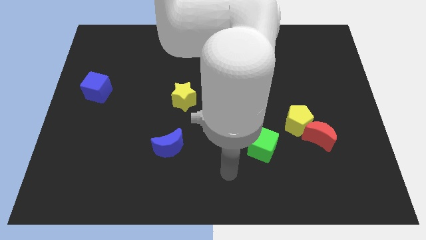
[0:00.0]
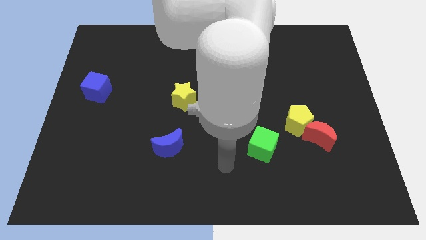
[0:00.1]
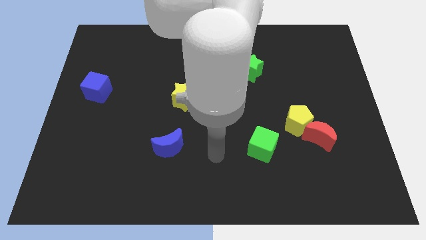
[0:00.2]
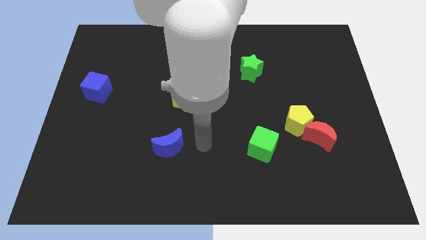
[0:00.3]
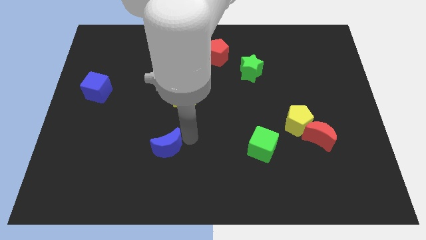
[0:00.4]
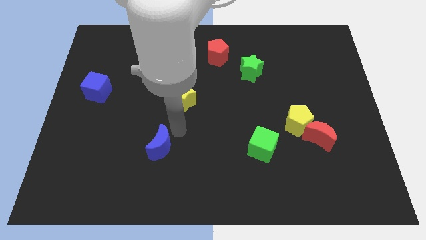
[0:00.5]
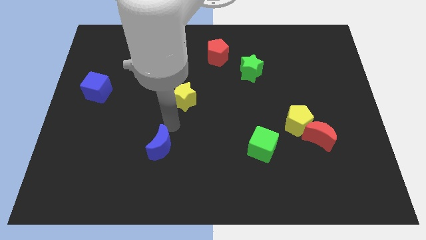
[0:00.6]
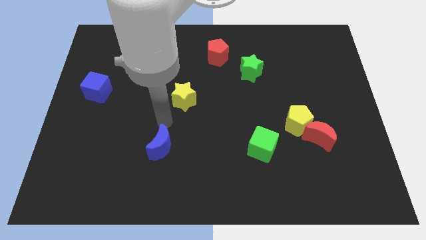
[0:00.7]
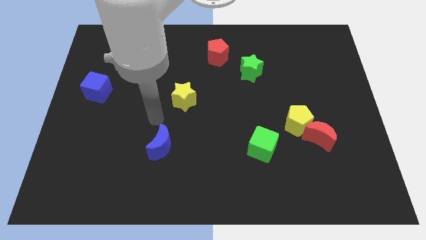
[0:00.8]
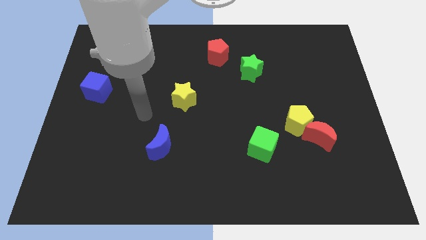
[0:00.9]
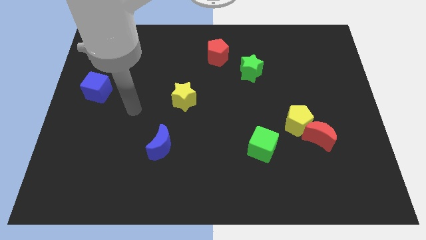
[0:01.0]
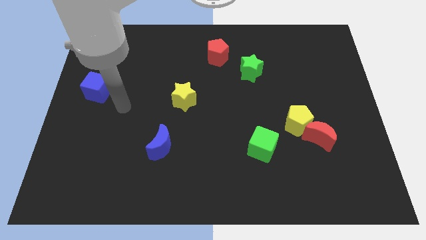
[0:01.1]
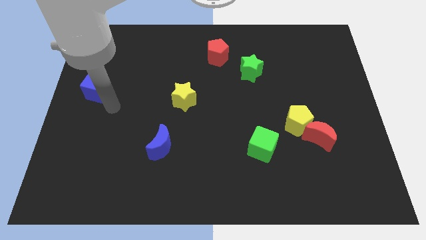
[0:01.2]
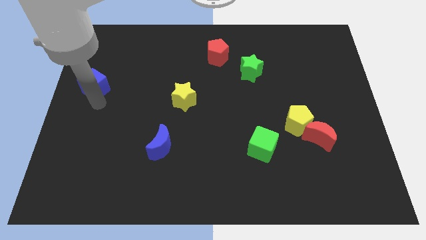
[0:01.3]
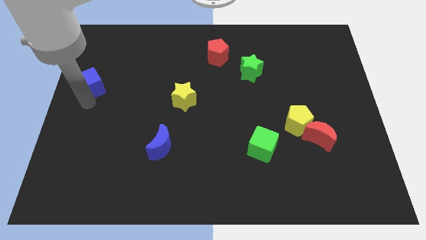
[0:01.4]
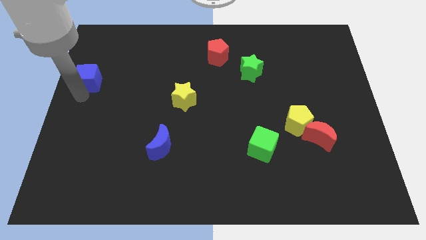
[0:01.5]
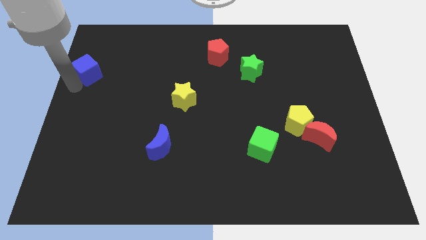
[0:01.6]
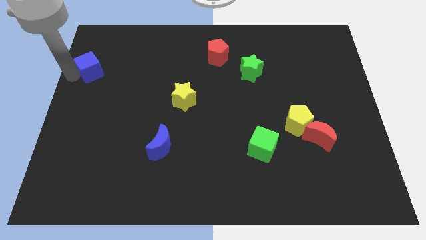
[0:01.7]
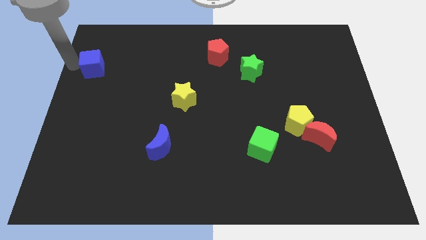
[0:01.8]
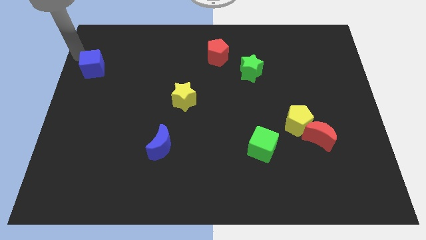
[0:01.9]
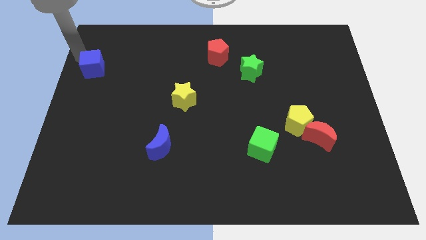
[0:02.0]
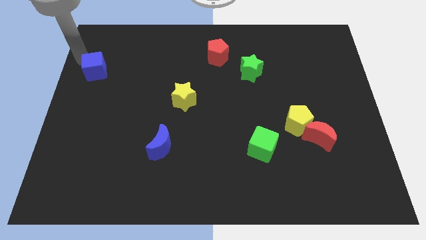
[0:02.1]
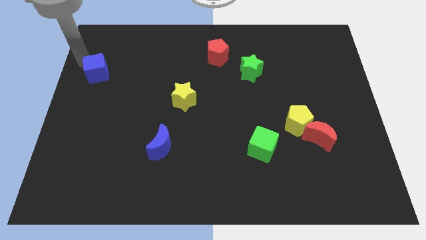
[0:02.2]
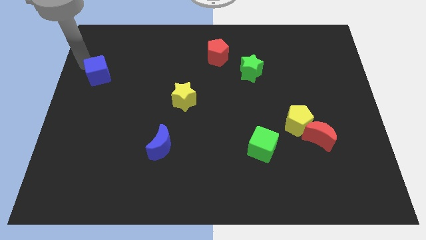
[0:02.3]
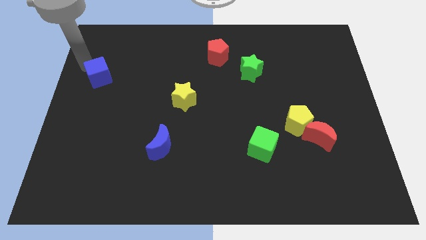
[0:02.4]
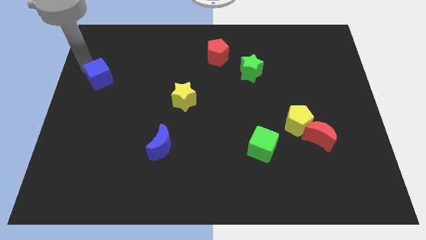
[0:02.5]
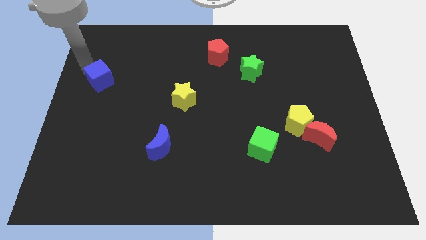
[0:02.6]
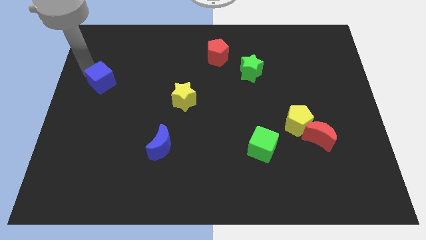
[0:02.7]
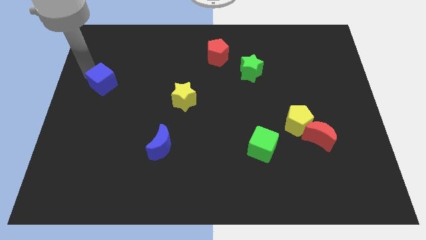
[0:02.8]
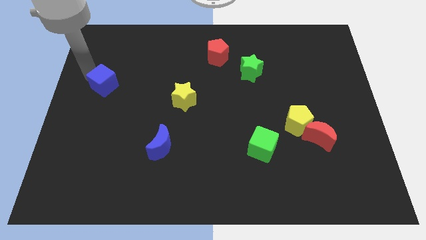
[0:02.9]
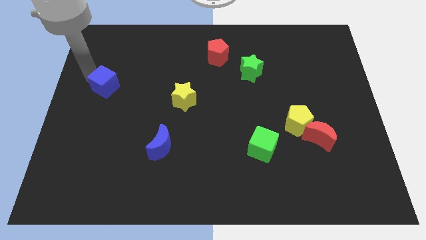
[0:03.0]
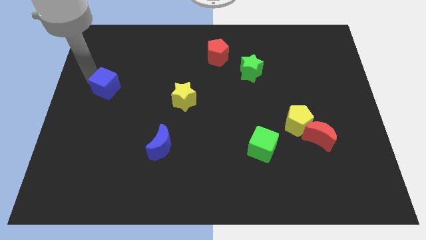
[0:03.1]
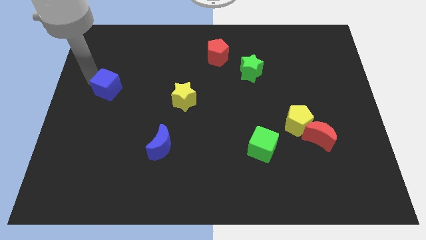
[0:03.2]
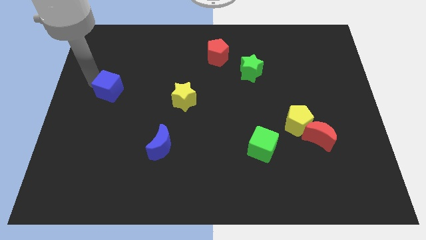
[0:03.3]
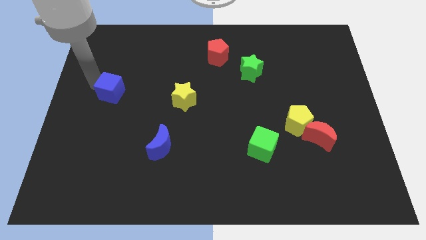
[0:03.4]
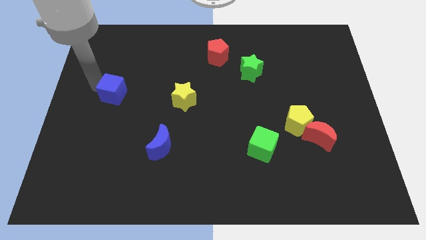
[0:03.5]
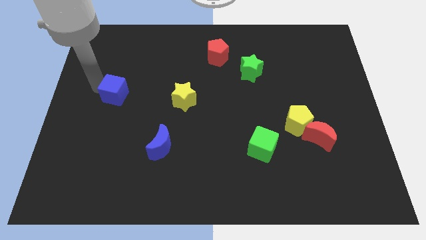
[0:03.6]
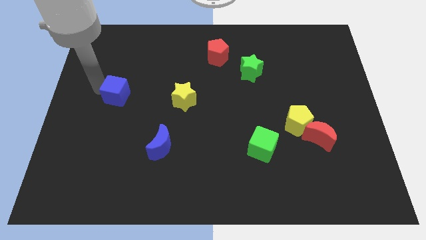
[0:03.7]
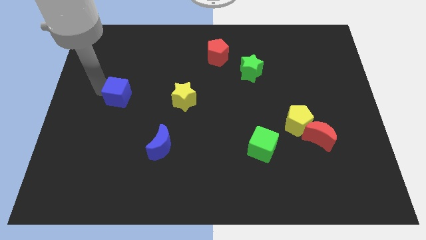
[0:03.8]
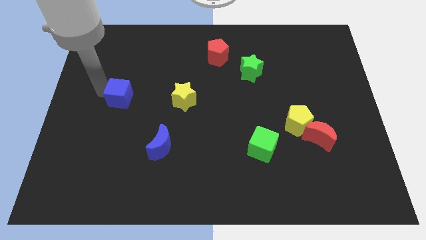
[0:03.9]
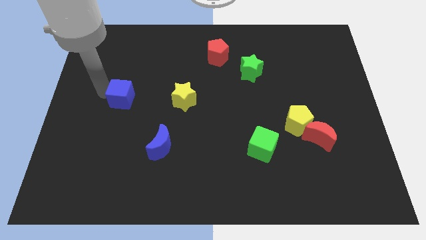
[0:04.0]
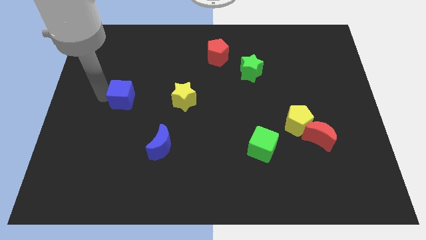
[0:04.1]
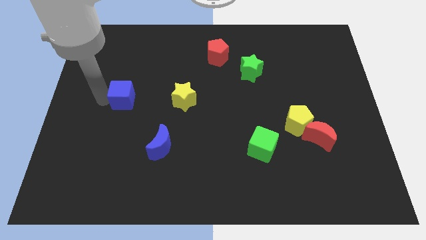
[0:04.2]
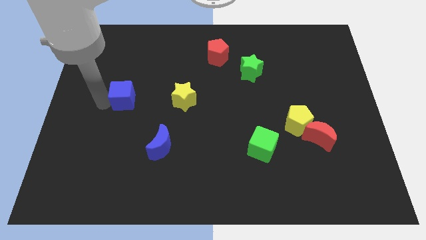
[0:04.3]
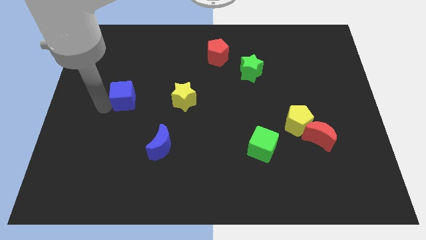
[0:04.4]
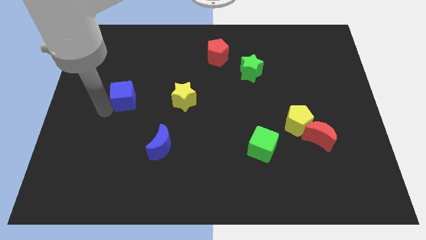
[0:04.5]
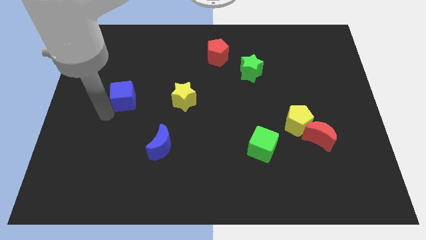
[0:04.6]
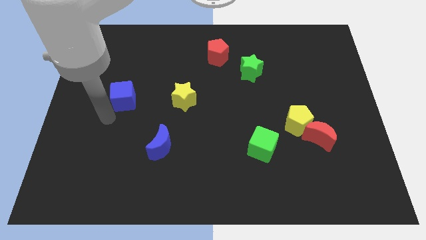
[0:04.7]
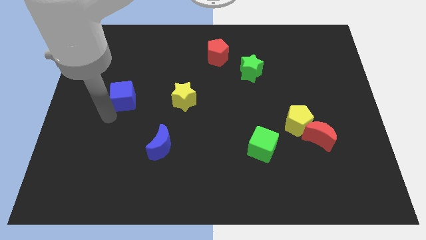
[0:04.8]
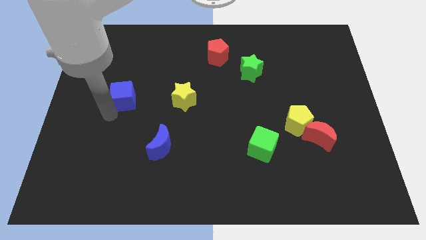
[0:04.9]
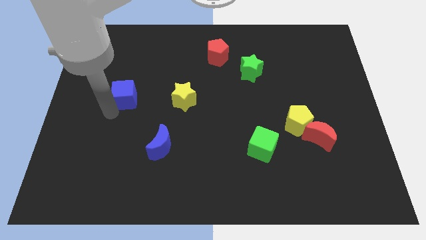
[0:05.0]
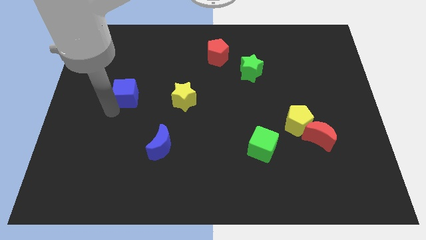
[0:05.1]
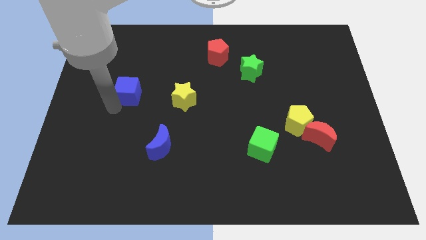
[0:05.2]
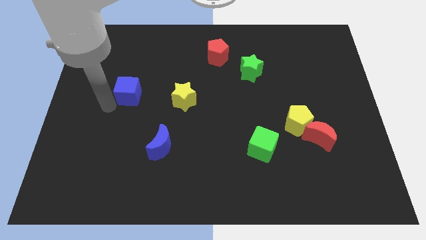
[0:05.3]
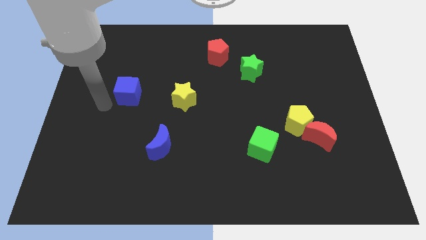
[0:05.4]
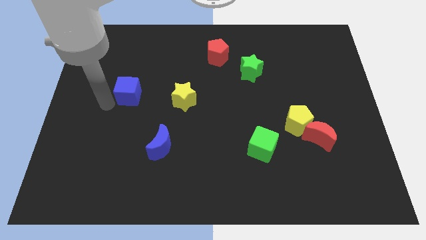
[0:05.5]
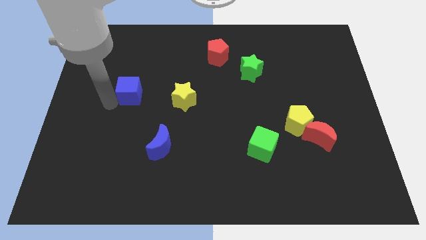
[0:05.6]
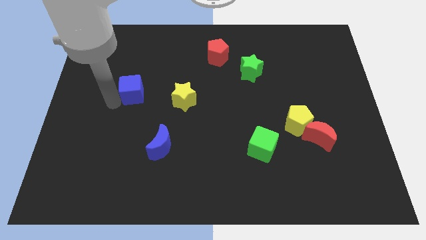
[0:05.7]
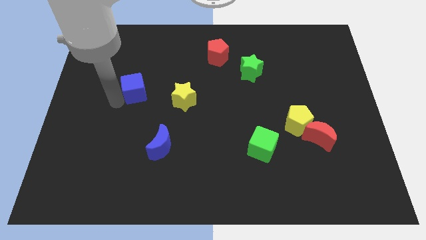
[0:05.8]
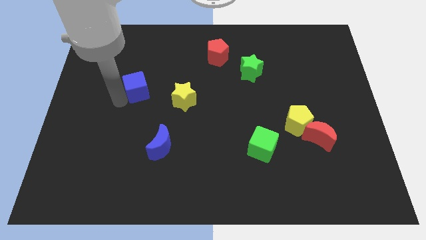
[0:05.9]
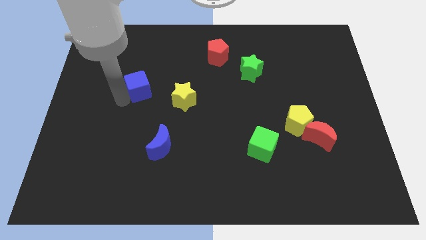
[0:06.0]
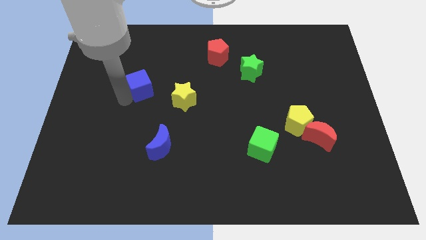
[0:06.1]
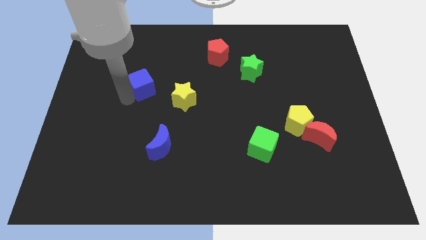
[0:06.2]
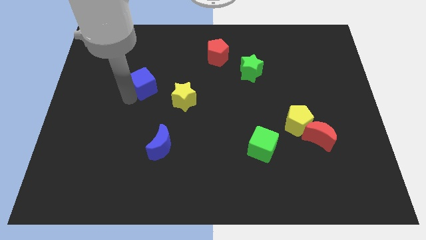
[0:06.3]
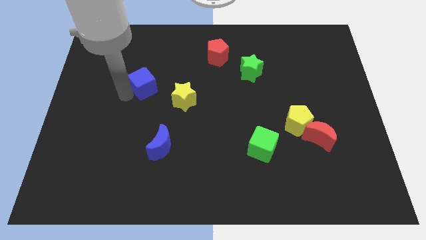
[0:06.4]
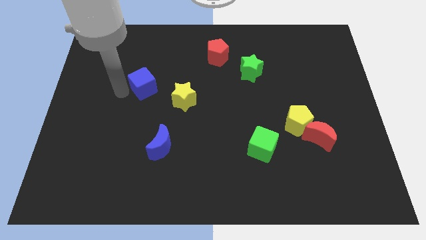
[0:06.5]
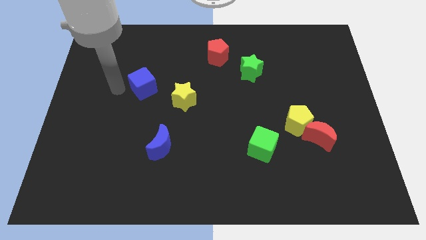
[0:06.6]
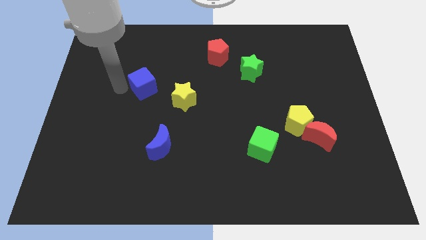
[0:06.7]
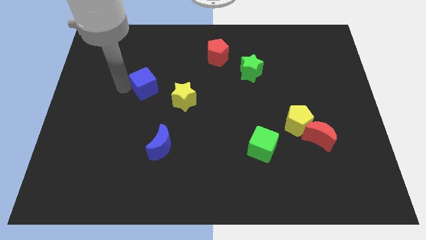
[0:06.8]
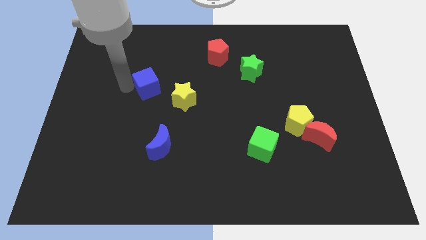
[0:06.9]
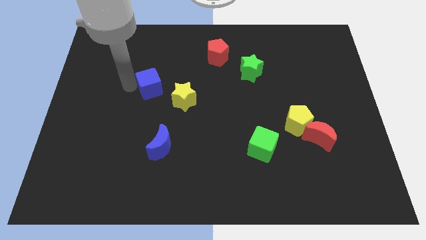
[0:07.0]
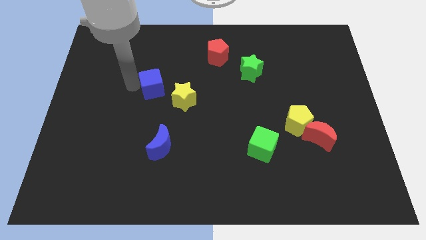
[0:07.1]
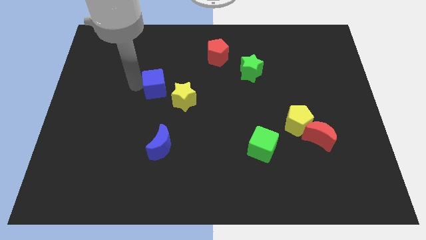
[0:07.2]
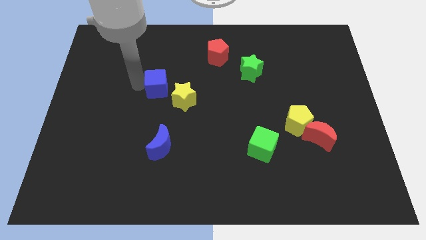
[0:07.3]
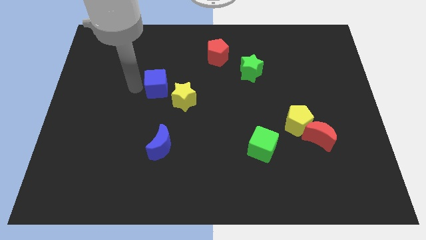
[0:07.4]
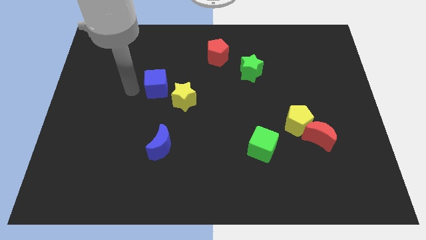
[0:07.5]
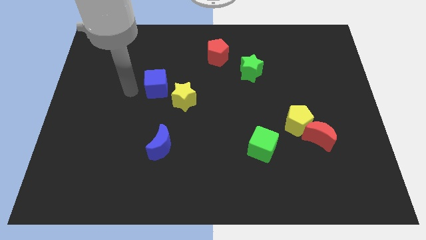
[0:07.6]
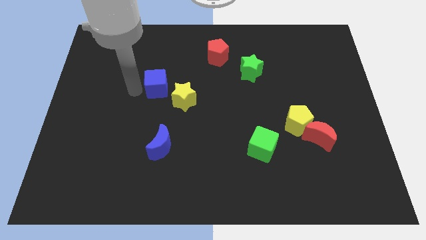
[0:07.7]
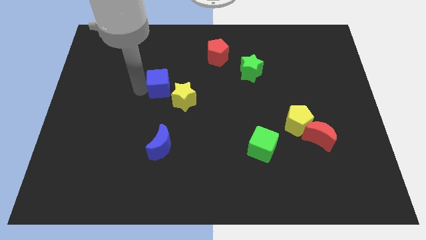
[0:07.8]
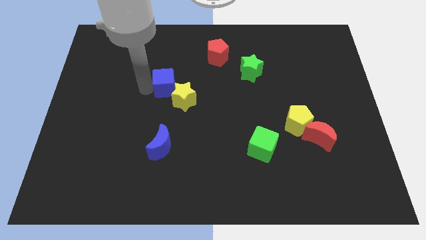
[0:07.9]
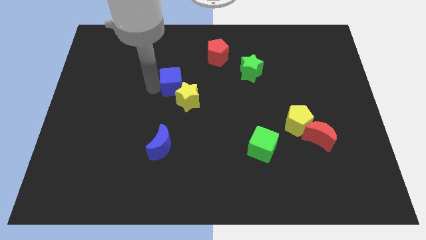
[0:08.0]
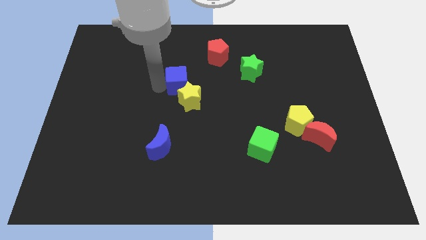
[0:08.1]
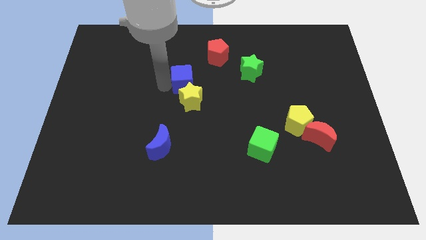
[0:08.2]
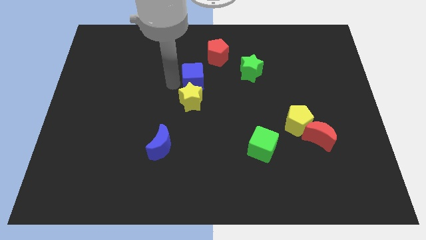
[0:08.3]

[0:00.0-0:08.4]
push the blue cube diagonally up and to the right of the yellow star
